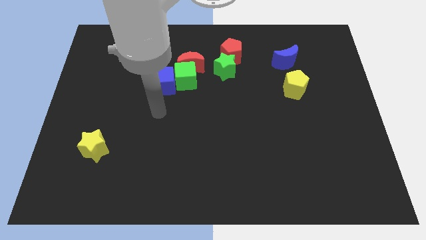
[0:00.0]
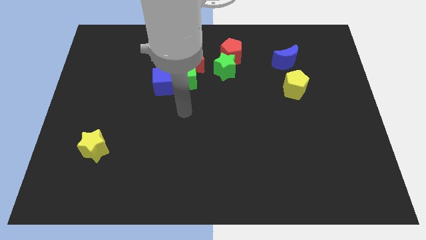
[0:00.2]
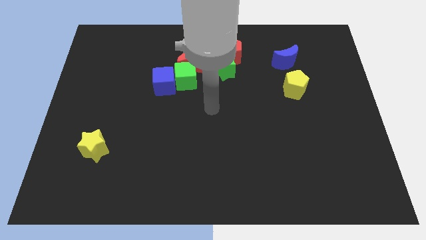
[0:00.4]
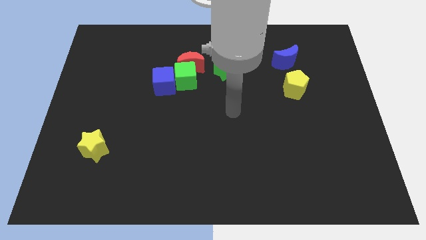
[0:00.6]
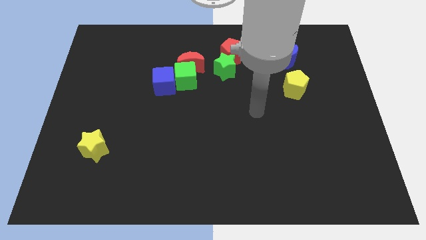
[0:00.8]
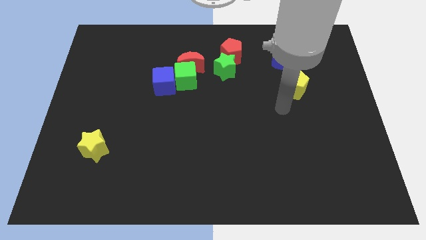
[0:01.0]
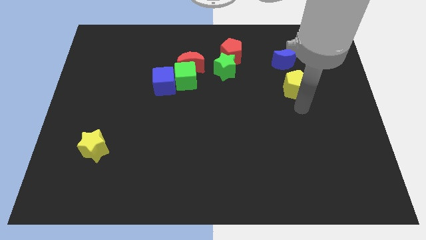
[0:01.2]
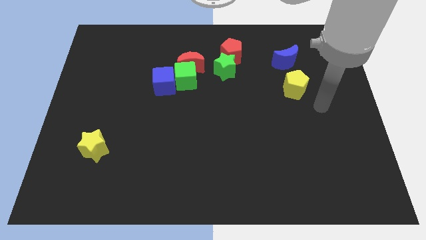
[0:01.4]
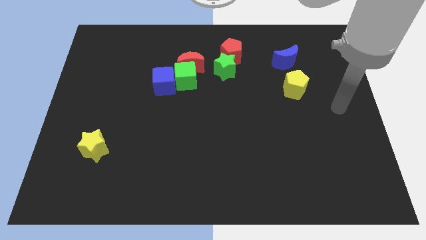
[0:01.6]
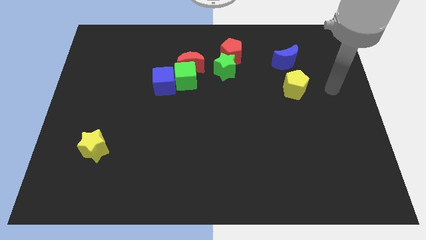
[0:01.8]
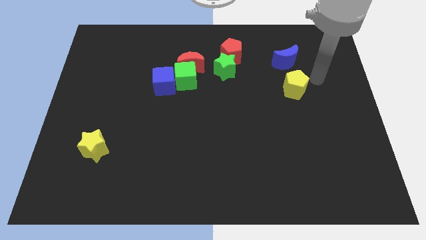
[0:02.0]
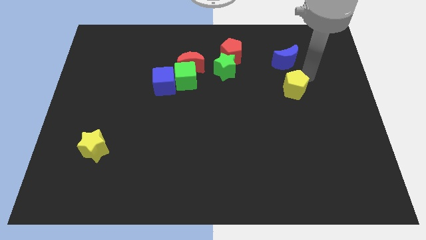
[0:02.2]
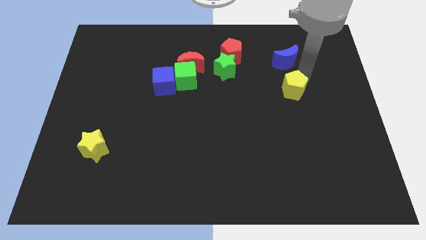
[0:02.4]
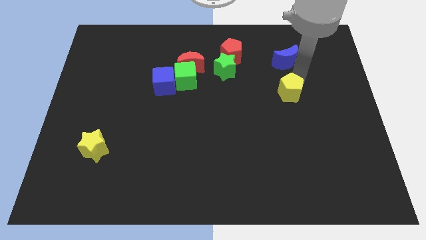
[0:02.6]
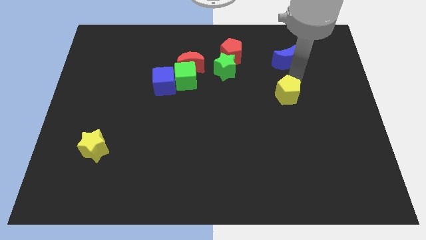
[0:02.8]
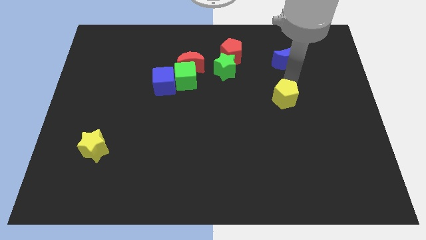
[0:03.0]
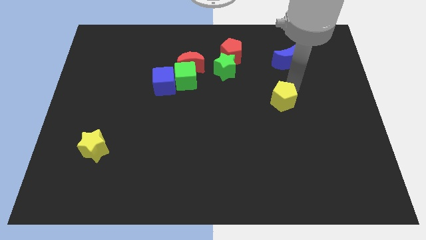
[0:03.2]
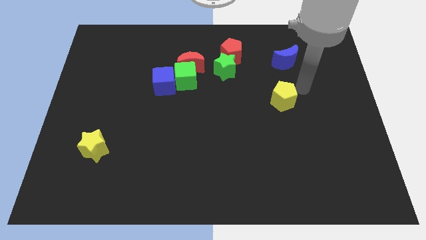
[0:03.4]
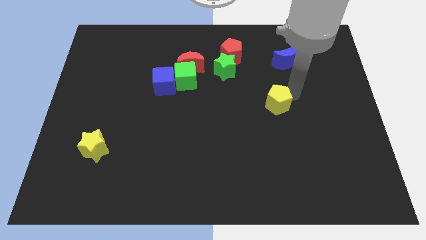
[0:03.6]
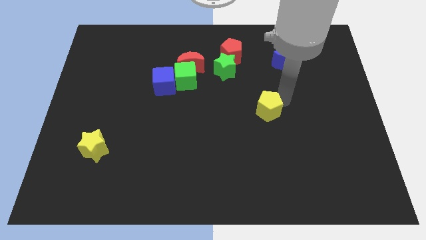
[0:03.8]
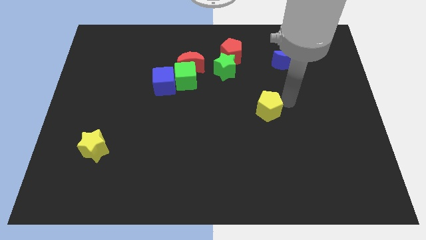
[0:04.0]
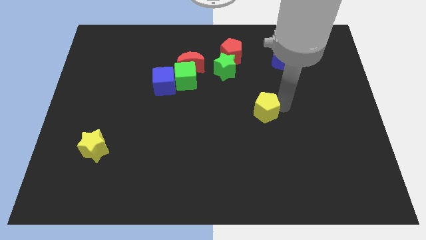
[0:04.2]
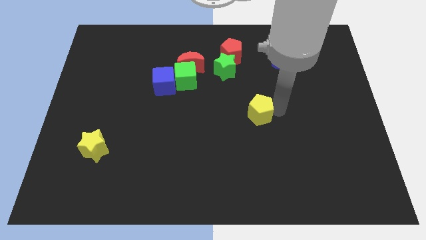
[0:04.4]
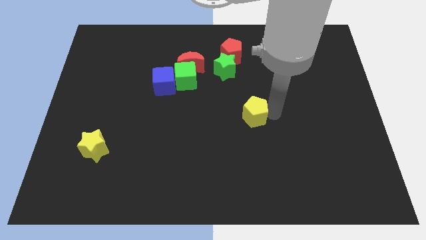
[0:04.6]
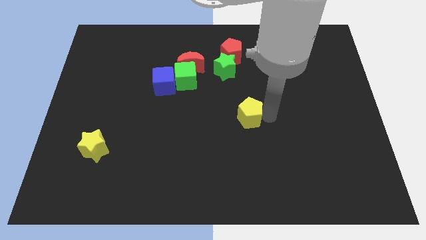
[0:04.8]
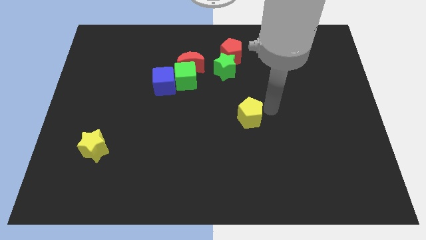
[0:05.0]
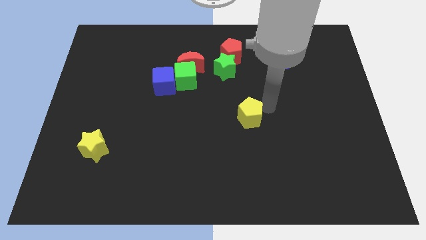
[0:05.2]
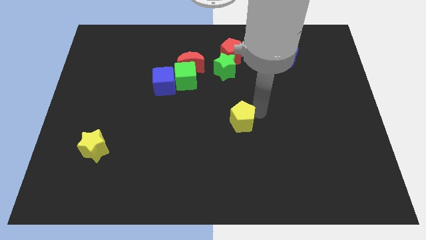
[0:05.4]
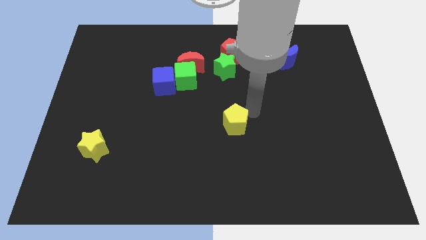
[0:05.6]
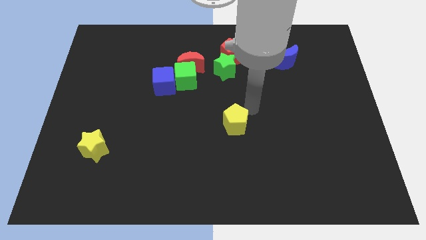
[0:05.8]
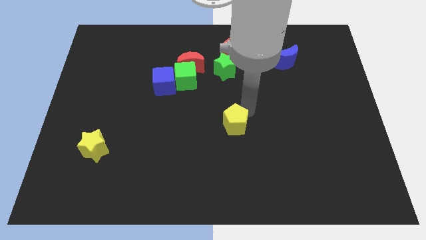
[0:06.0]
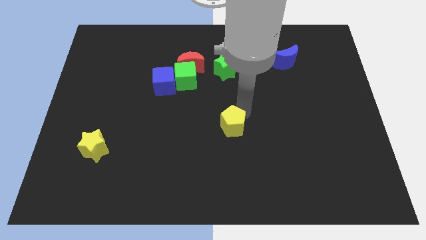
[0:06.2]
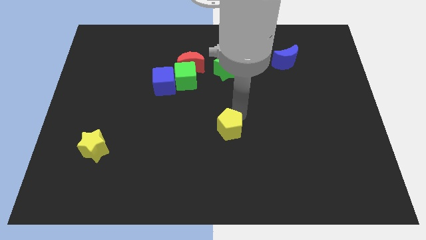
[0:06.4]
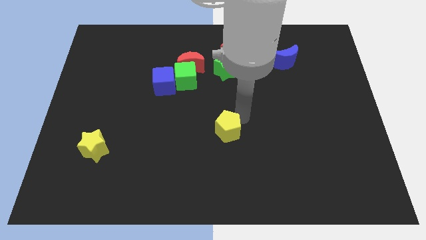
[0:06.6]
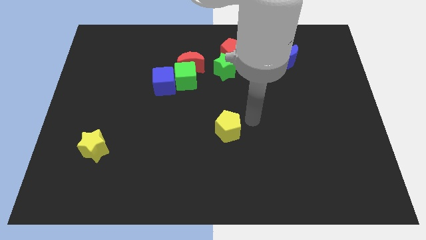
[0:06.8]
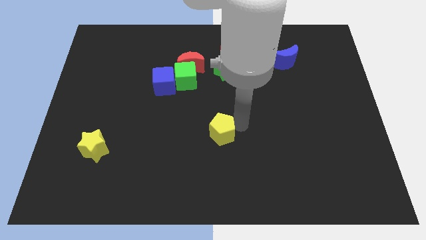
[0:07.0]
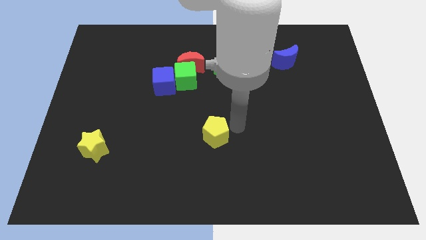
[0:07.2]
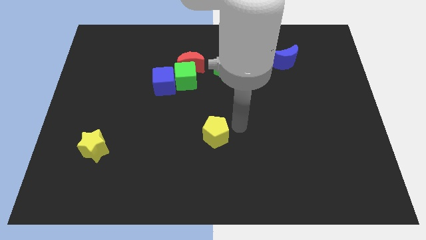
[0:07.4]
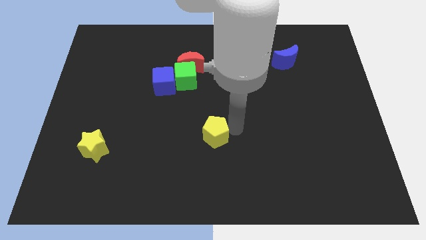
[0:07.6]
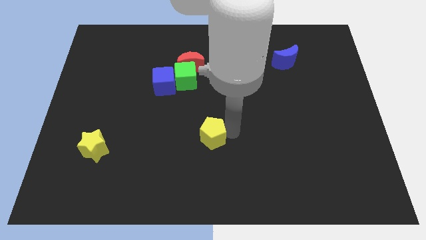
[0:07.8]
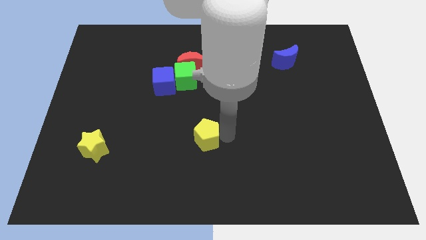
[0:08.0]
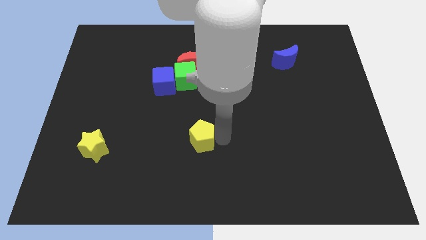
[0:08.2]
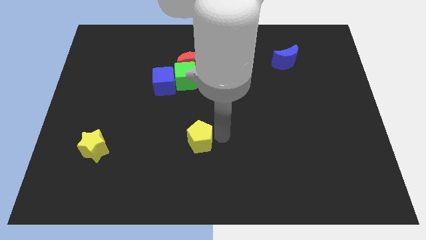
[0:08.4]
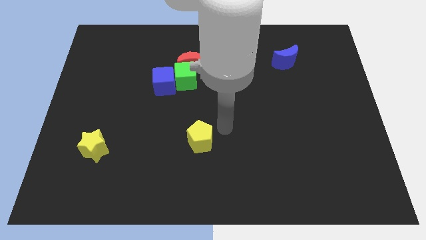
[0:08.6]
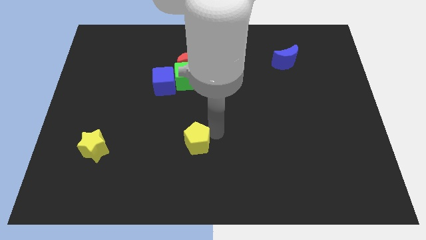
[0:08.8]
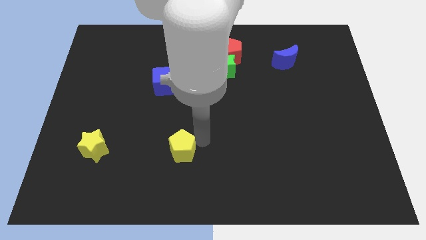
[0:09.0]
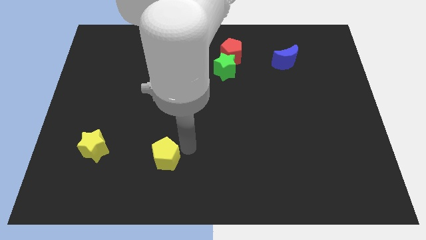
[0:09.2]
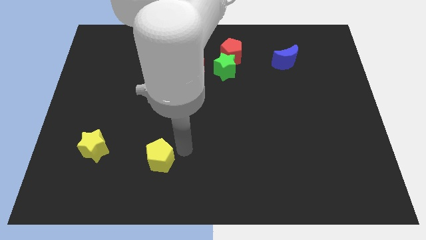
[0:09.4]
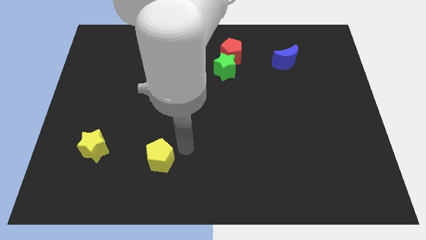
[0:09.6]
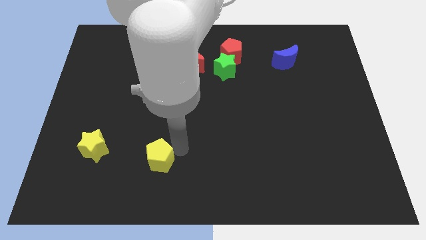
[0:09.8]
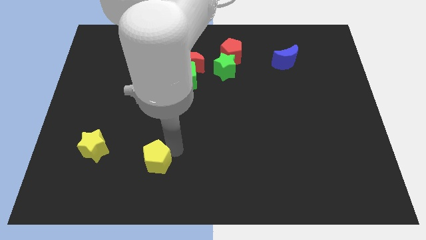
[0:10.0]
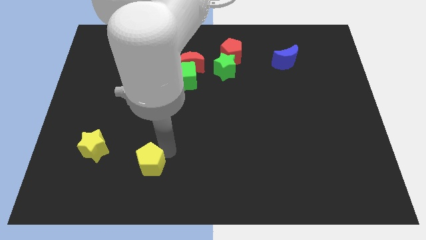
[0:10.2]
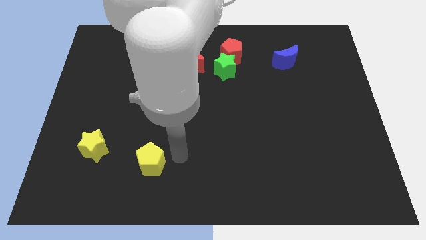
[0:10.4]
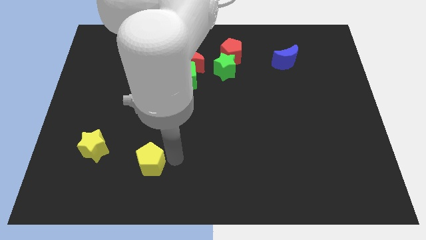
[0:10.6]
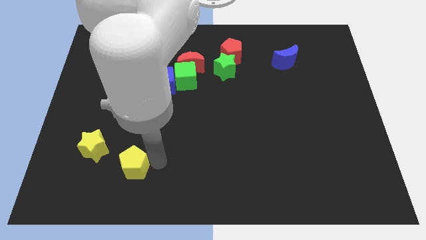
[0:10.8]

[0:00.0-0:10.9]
move the yellow pentagon to the bottom right side of the yellow star

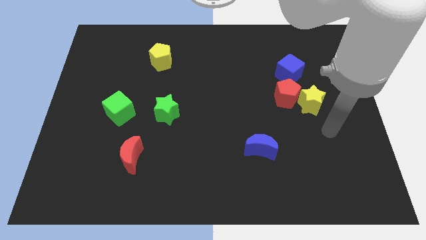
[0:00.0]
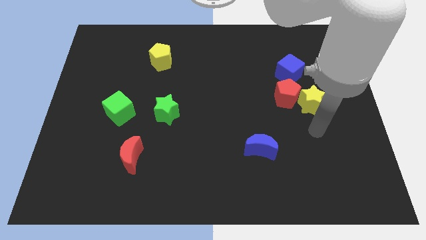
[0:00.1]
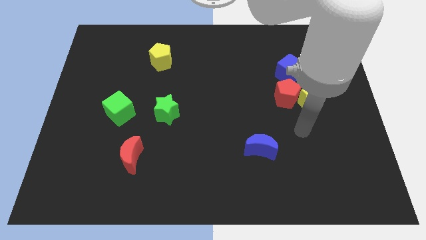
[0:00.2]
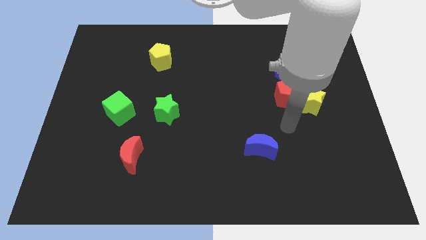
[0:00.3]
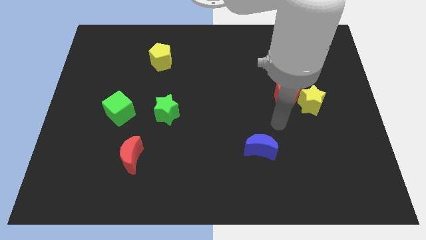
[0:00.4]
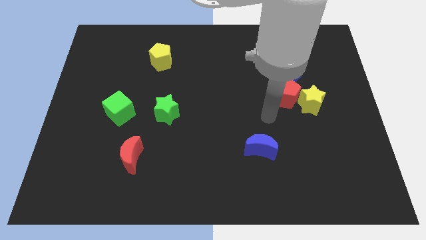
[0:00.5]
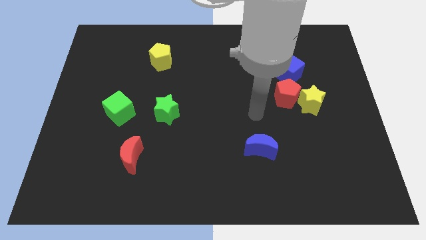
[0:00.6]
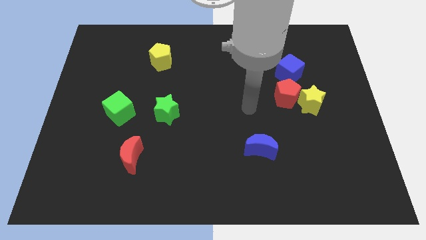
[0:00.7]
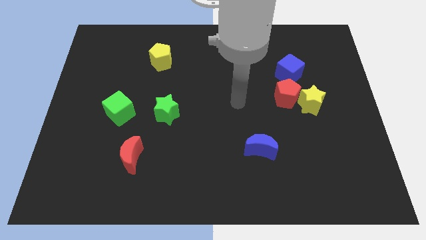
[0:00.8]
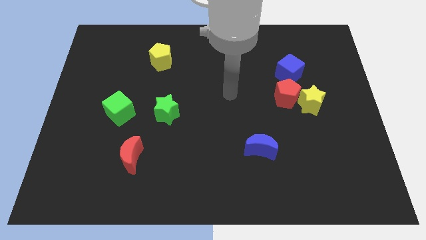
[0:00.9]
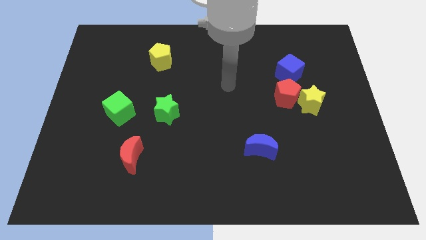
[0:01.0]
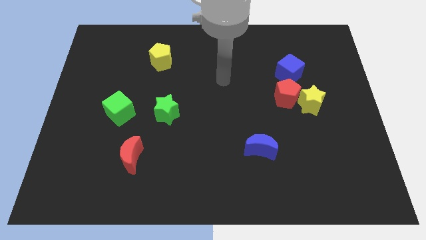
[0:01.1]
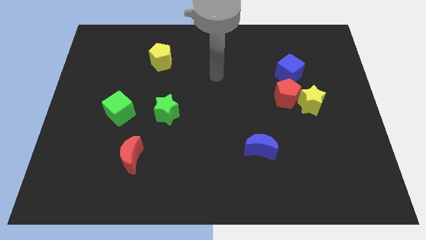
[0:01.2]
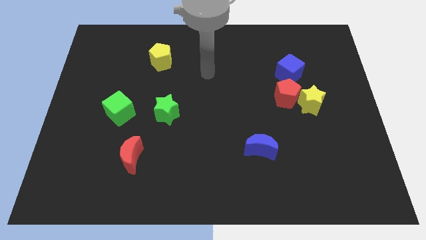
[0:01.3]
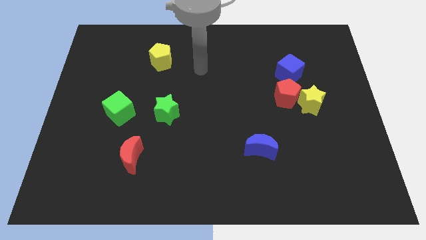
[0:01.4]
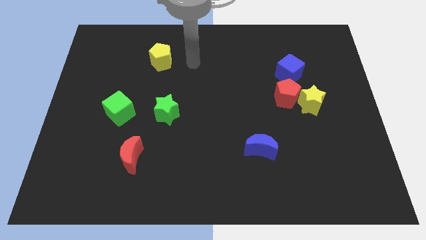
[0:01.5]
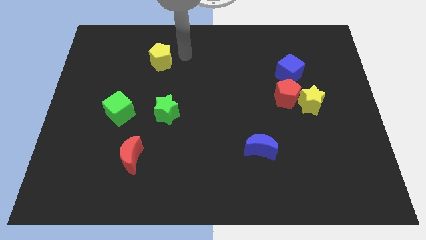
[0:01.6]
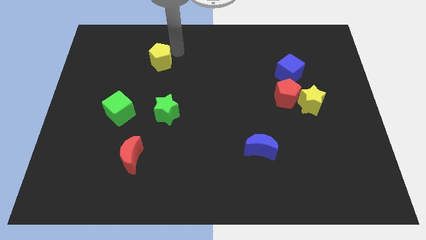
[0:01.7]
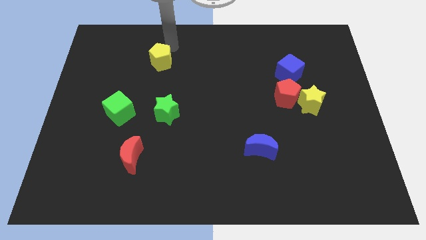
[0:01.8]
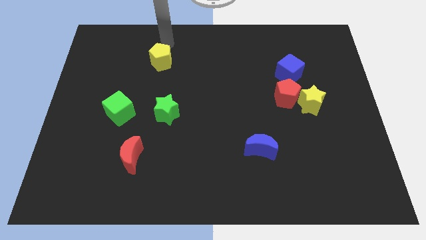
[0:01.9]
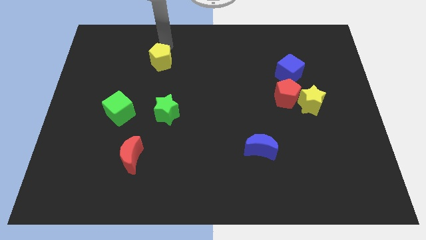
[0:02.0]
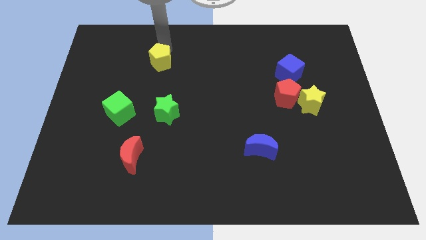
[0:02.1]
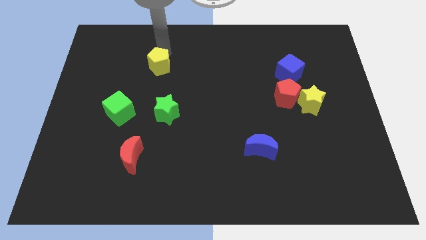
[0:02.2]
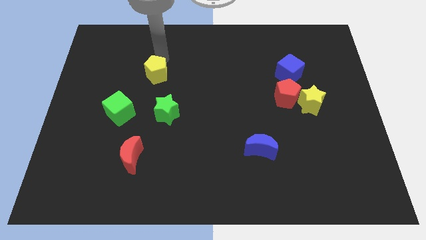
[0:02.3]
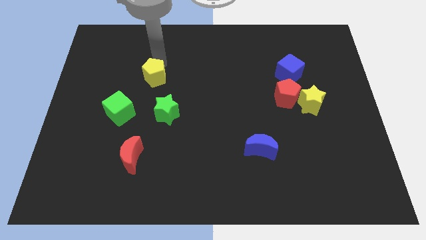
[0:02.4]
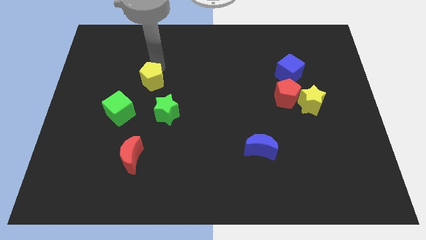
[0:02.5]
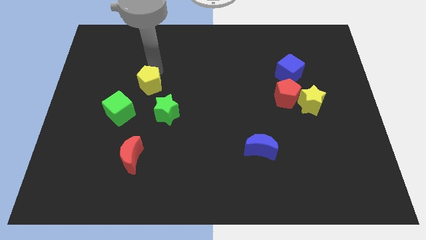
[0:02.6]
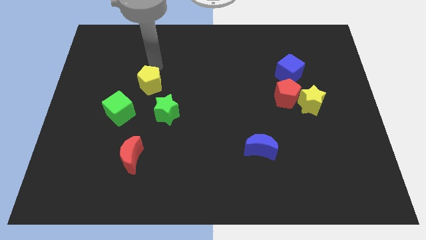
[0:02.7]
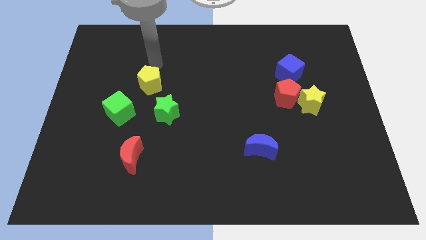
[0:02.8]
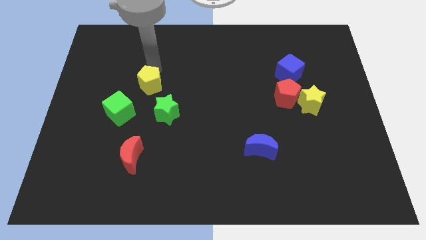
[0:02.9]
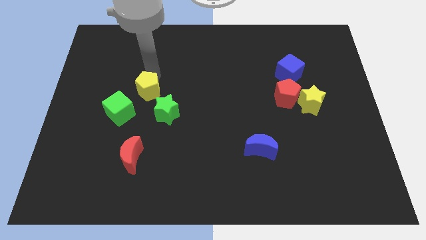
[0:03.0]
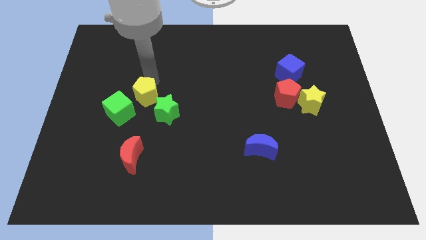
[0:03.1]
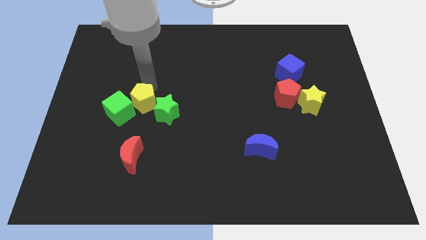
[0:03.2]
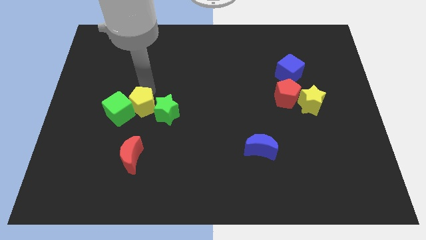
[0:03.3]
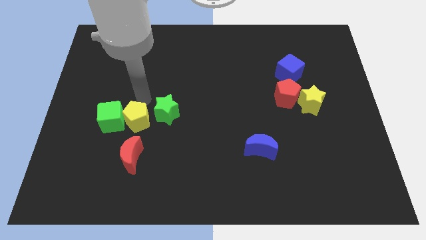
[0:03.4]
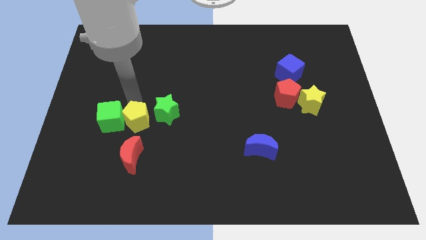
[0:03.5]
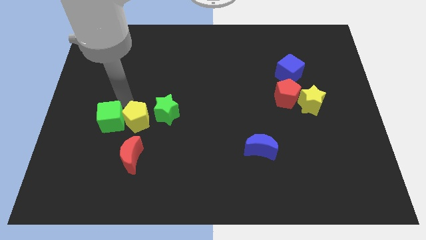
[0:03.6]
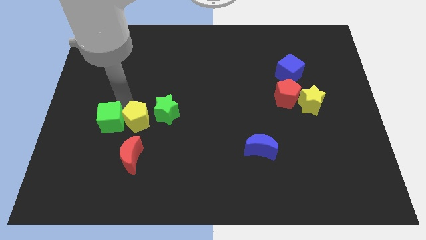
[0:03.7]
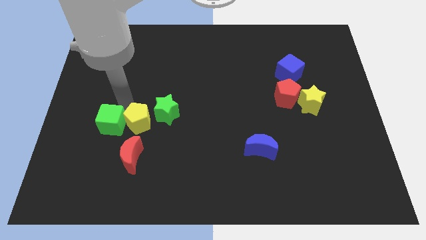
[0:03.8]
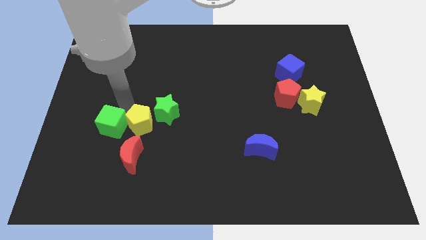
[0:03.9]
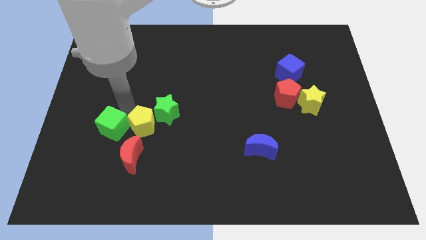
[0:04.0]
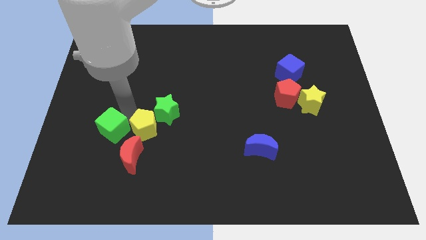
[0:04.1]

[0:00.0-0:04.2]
move the yellow pentagon to the bottom of the green star
